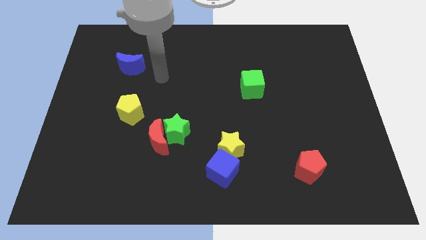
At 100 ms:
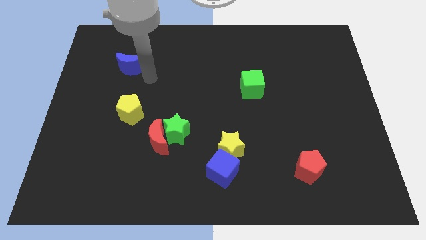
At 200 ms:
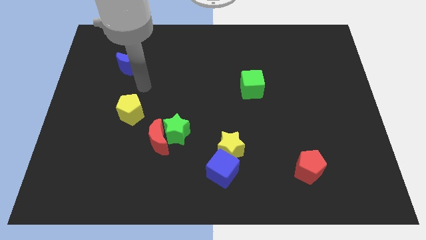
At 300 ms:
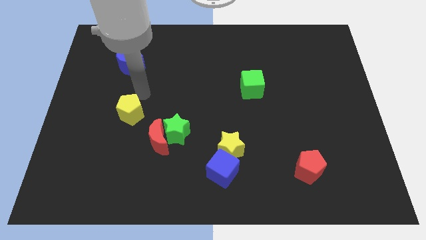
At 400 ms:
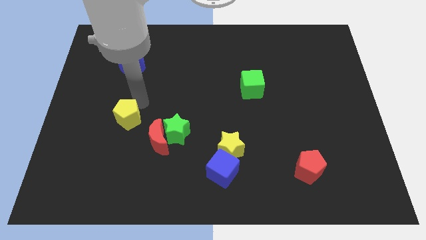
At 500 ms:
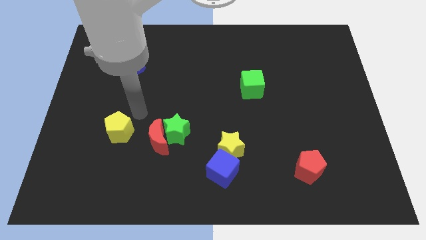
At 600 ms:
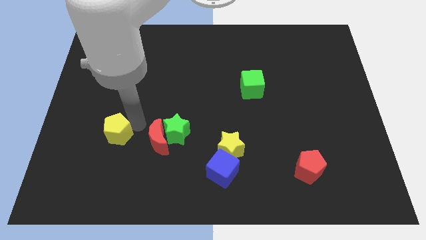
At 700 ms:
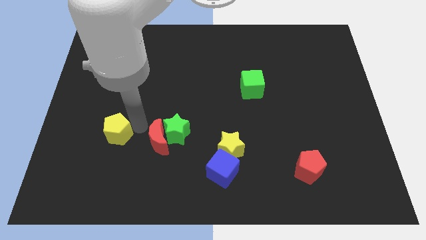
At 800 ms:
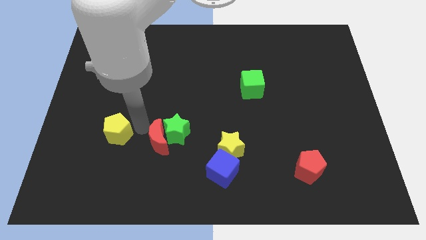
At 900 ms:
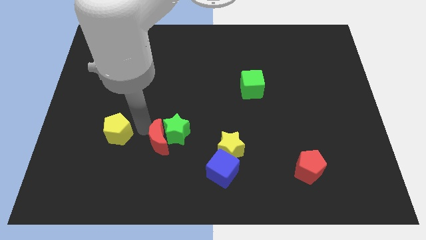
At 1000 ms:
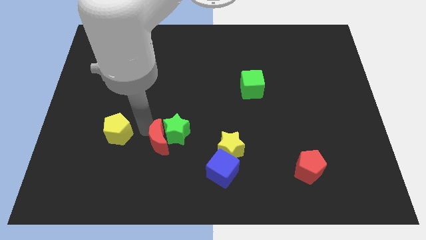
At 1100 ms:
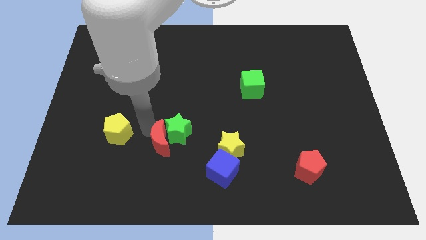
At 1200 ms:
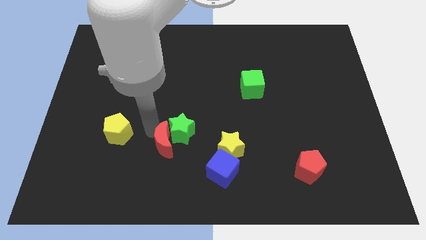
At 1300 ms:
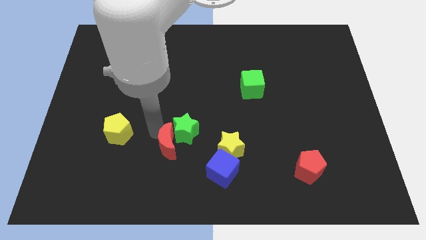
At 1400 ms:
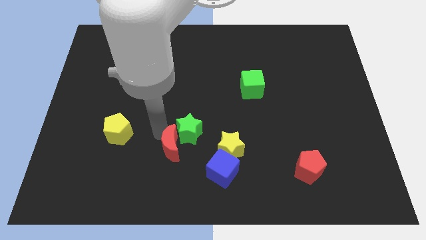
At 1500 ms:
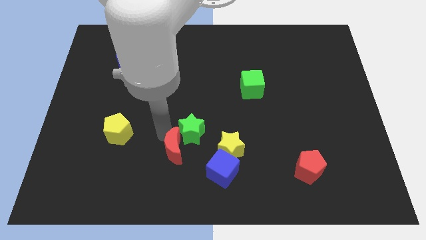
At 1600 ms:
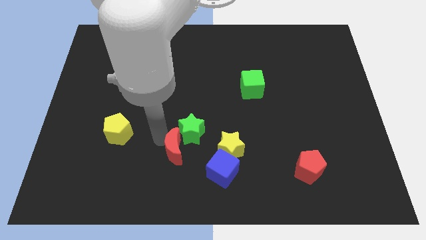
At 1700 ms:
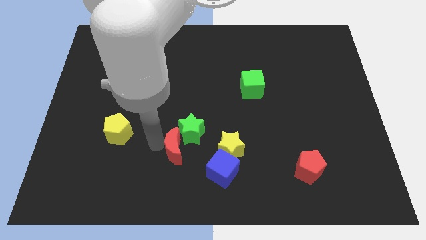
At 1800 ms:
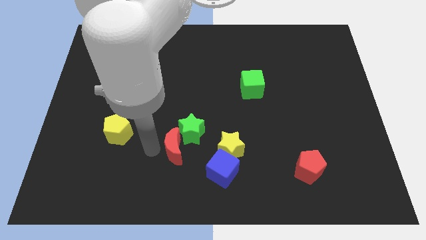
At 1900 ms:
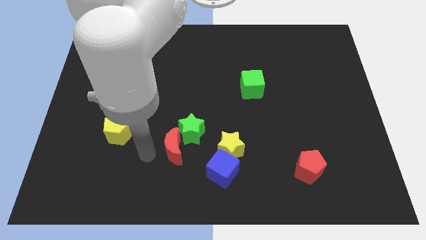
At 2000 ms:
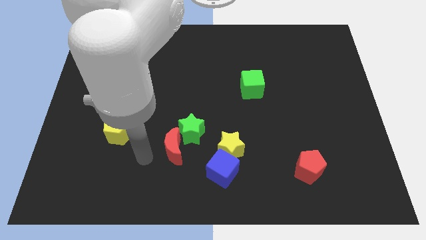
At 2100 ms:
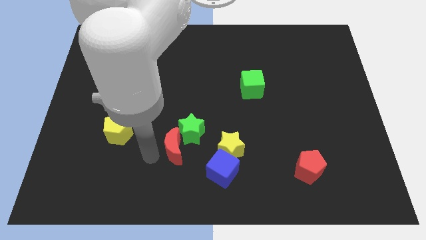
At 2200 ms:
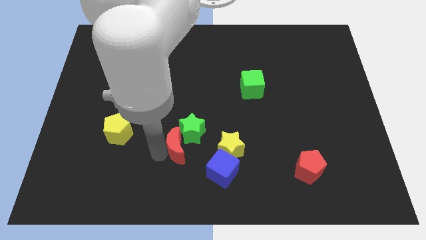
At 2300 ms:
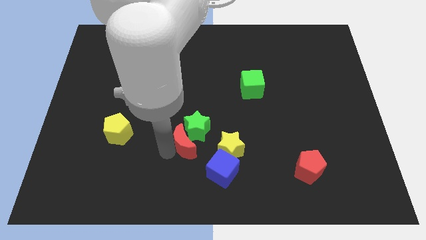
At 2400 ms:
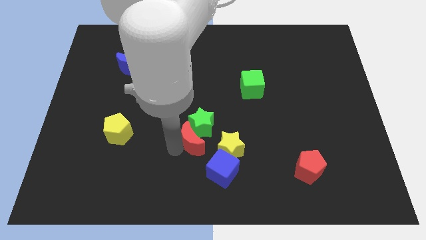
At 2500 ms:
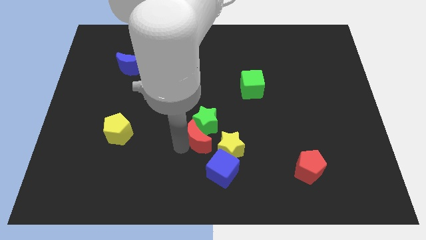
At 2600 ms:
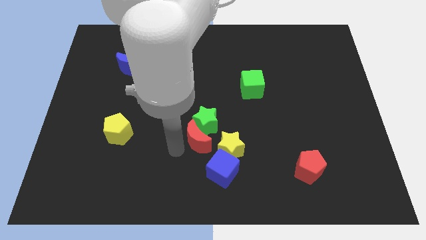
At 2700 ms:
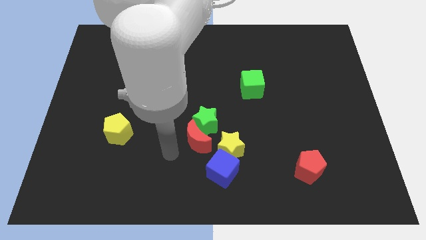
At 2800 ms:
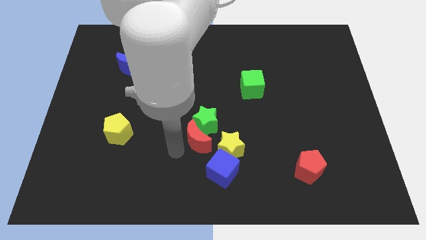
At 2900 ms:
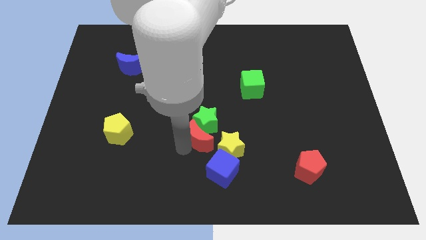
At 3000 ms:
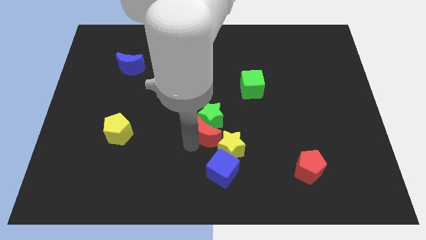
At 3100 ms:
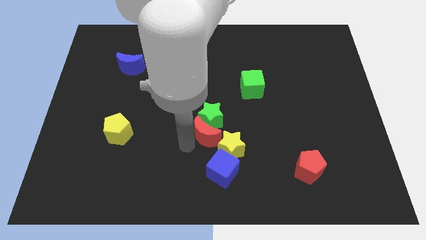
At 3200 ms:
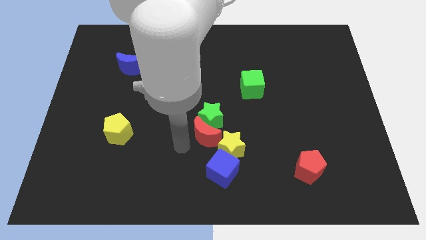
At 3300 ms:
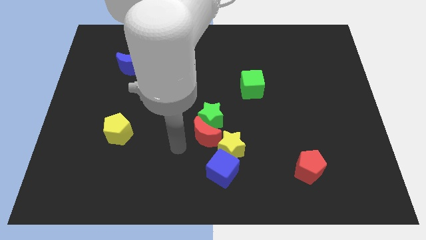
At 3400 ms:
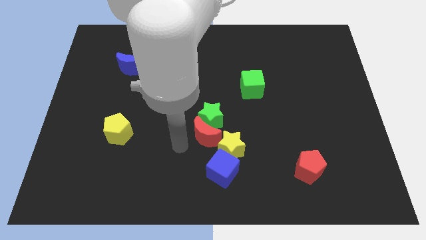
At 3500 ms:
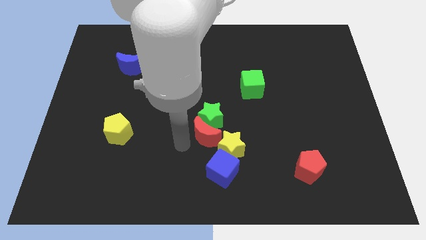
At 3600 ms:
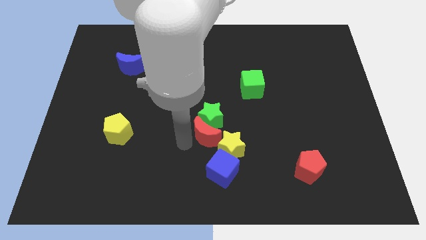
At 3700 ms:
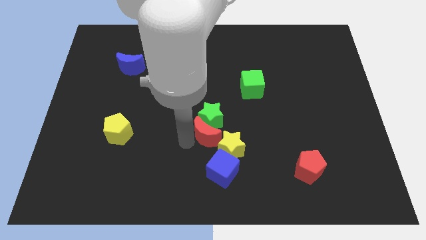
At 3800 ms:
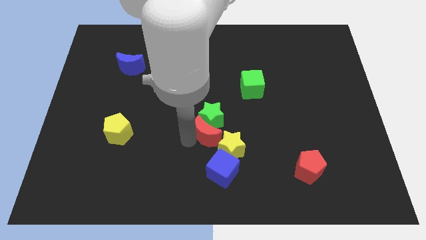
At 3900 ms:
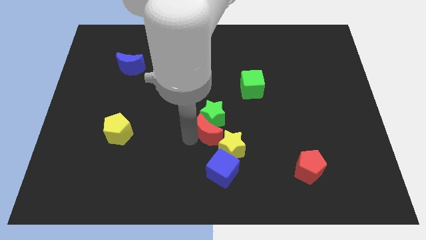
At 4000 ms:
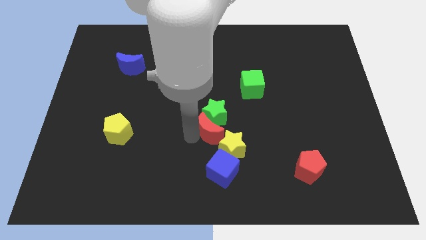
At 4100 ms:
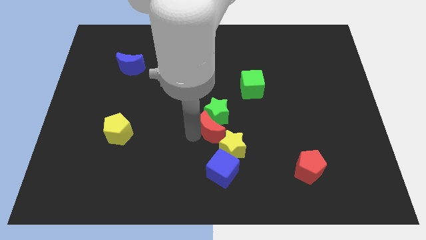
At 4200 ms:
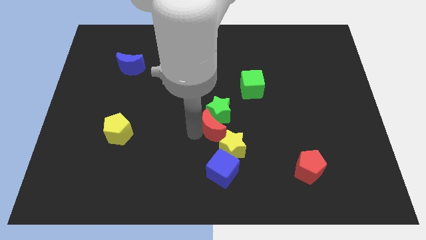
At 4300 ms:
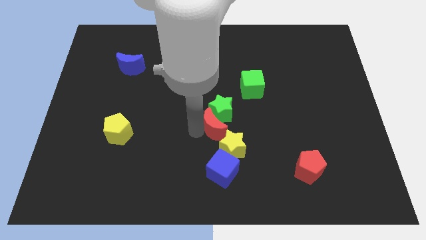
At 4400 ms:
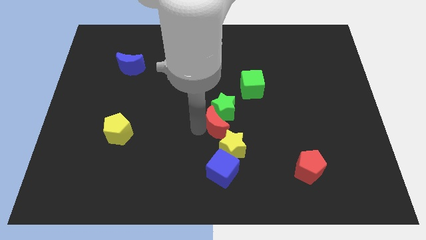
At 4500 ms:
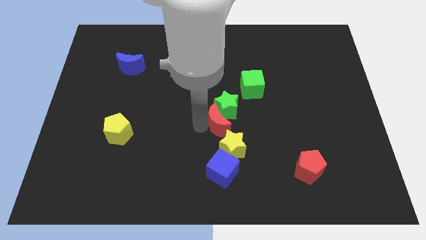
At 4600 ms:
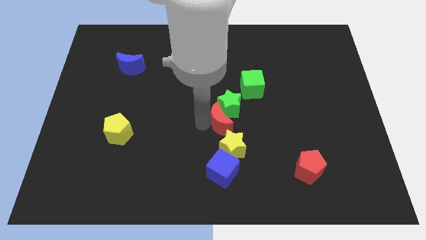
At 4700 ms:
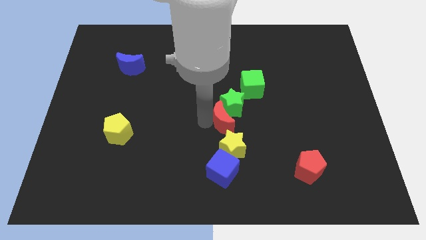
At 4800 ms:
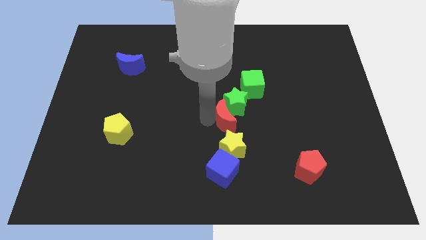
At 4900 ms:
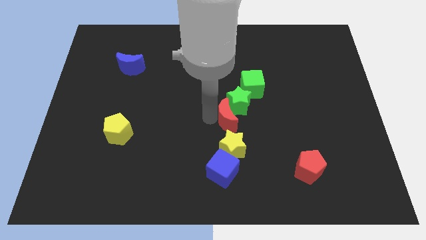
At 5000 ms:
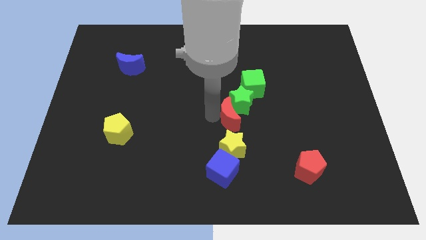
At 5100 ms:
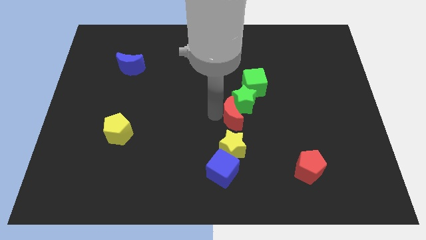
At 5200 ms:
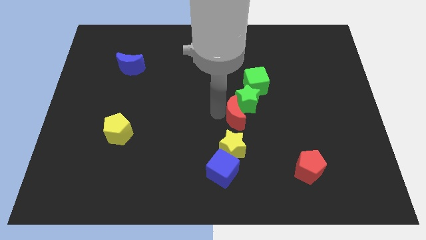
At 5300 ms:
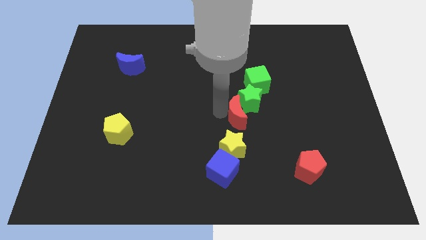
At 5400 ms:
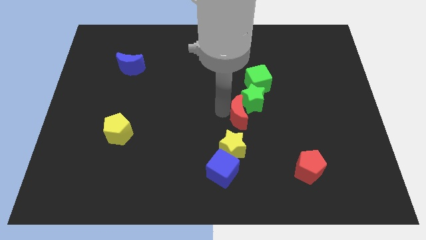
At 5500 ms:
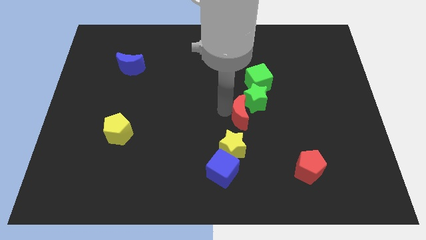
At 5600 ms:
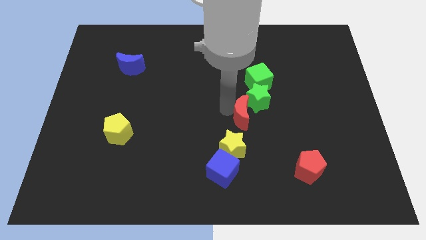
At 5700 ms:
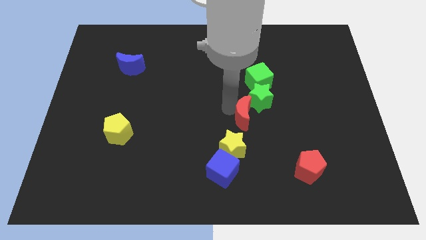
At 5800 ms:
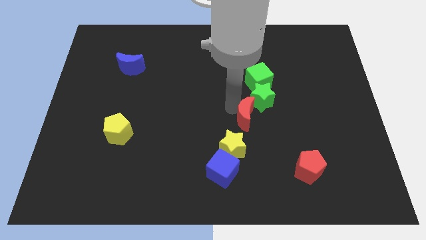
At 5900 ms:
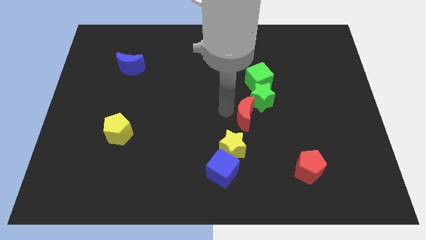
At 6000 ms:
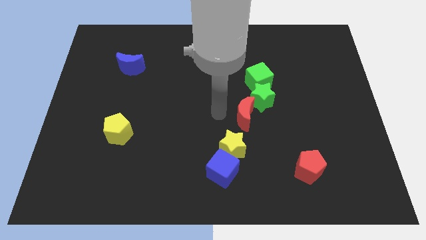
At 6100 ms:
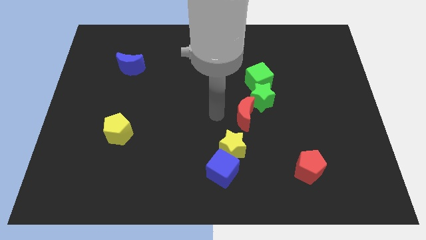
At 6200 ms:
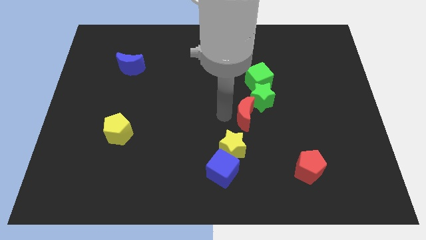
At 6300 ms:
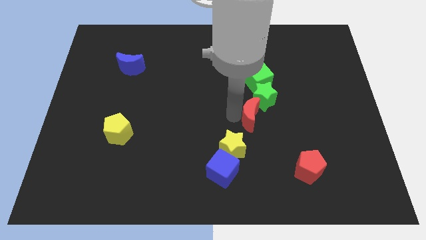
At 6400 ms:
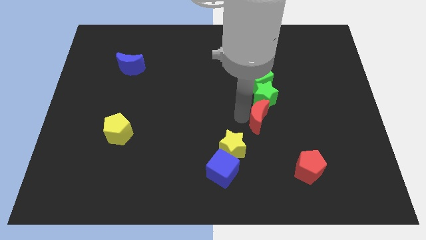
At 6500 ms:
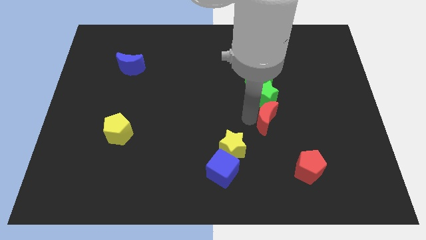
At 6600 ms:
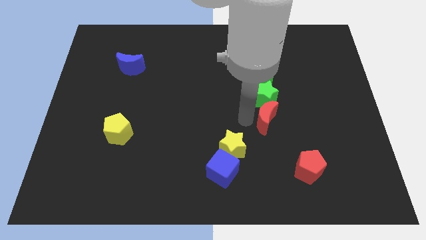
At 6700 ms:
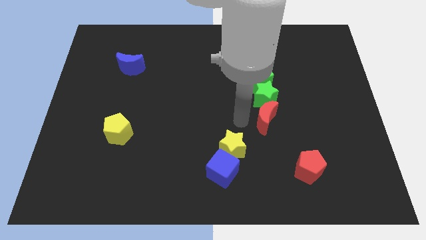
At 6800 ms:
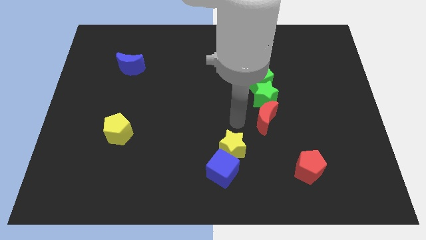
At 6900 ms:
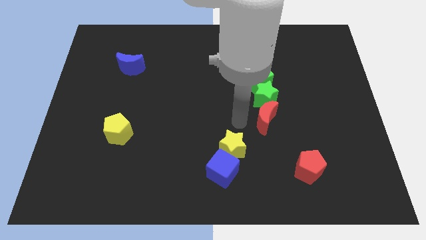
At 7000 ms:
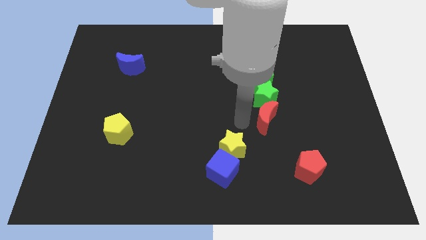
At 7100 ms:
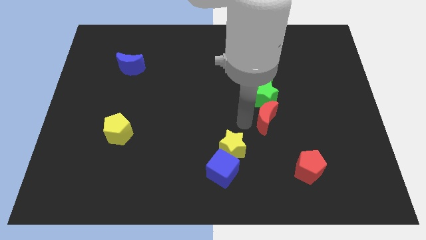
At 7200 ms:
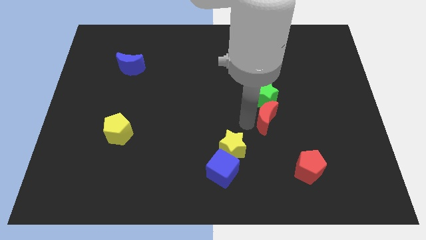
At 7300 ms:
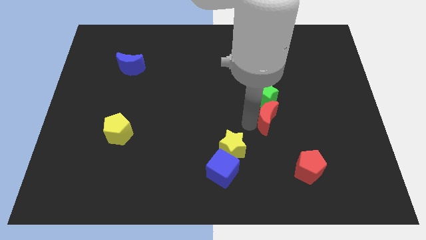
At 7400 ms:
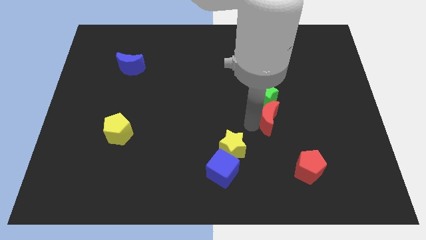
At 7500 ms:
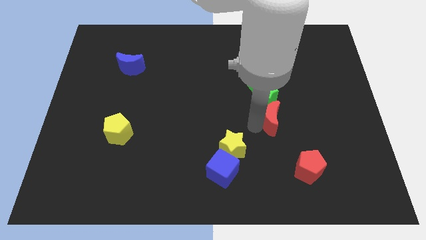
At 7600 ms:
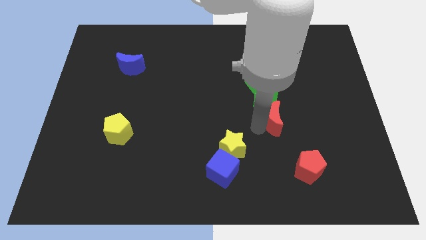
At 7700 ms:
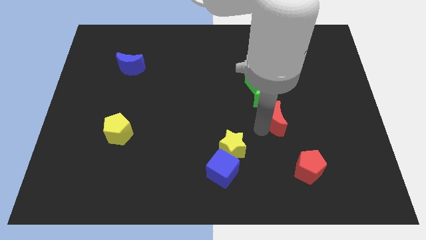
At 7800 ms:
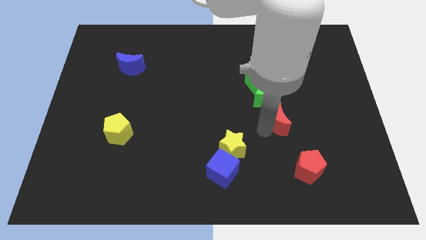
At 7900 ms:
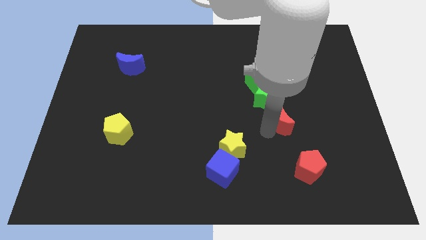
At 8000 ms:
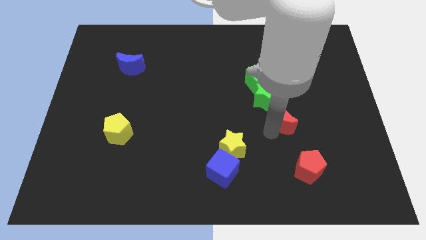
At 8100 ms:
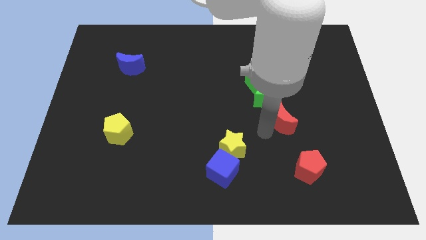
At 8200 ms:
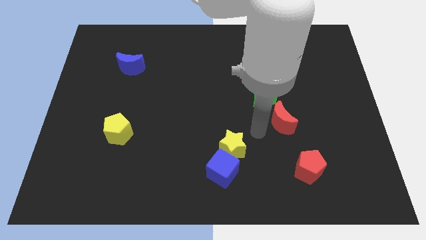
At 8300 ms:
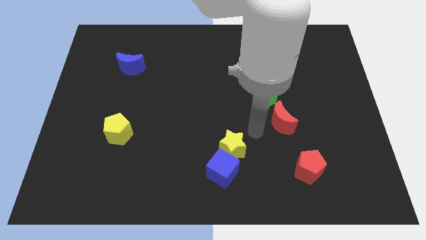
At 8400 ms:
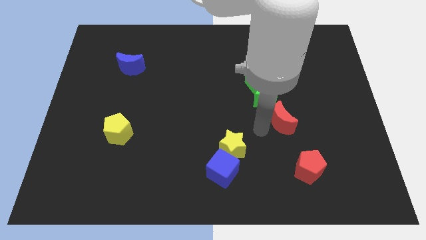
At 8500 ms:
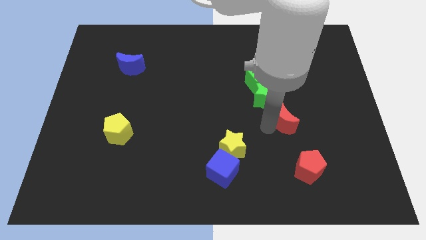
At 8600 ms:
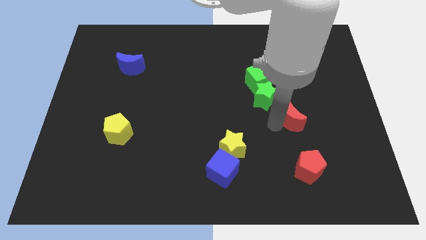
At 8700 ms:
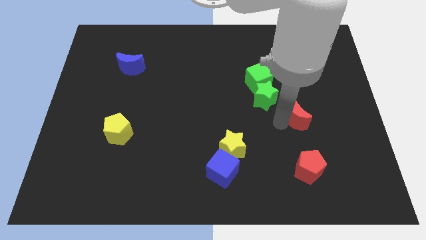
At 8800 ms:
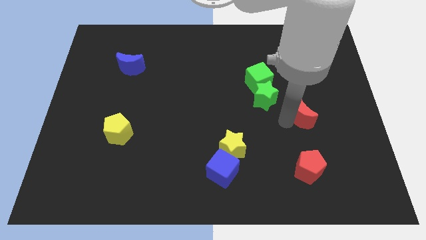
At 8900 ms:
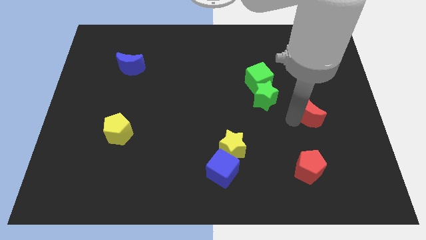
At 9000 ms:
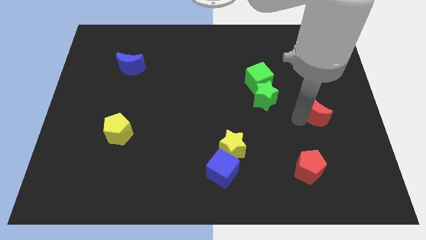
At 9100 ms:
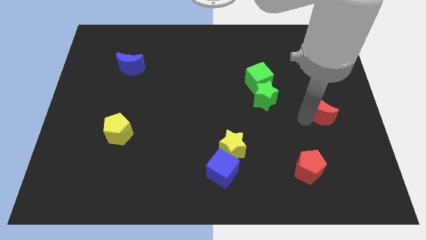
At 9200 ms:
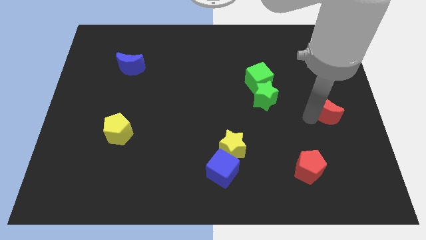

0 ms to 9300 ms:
move the red moon to the right side
